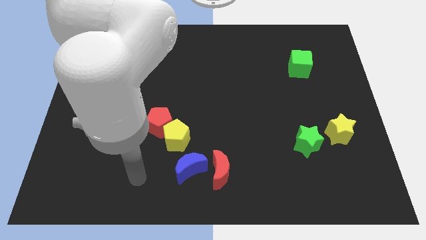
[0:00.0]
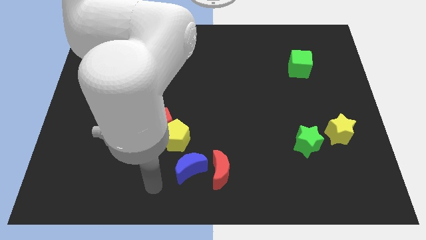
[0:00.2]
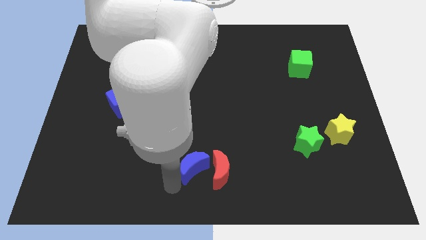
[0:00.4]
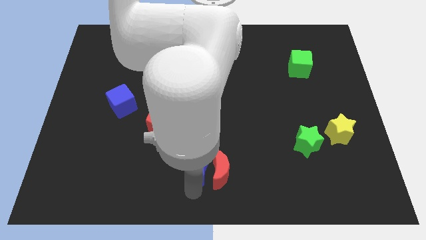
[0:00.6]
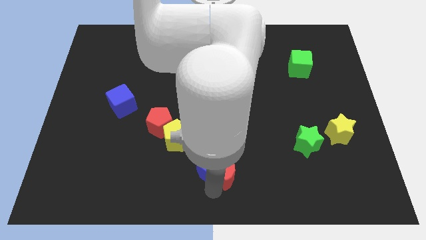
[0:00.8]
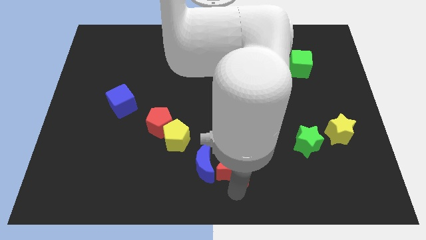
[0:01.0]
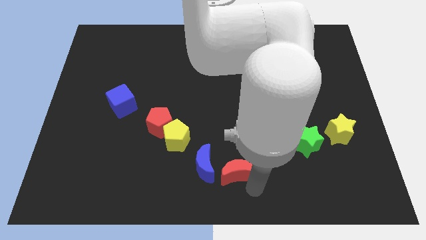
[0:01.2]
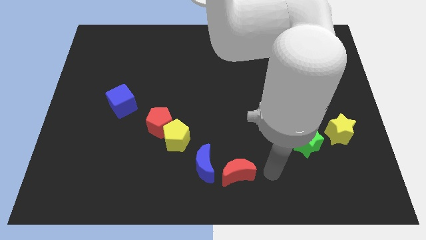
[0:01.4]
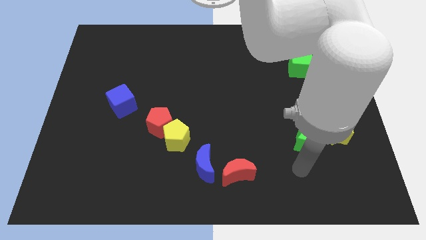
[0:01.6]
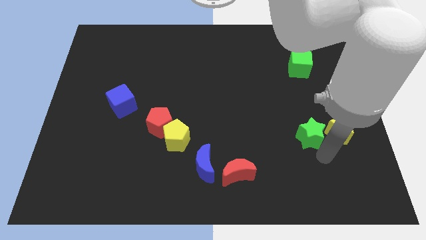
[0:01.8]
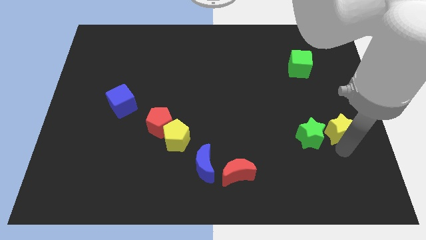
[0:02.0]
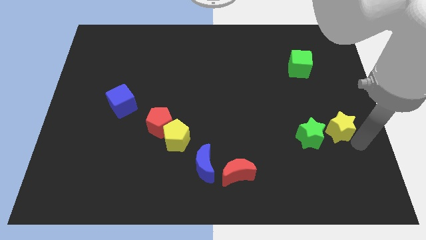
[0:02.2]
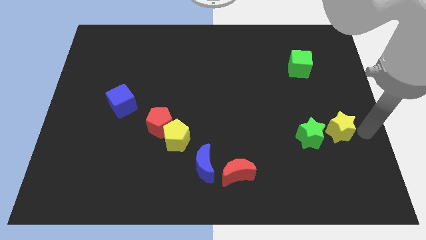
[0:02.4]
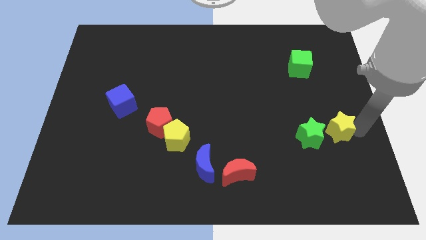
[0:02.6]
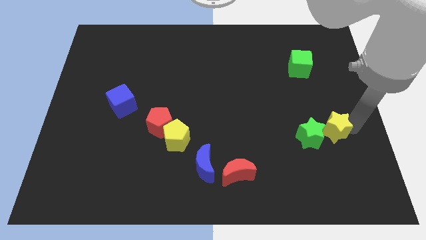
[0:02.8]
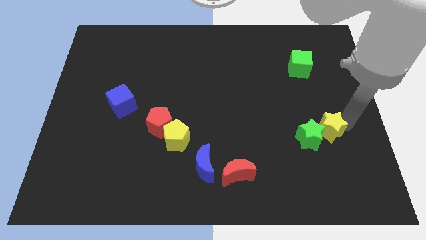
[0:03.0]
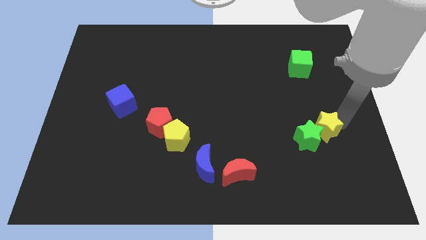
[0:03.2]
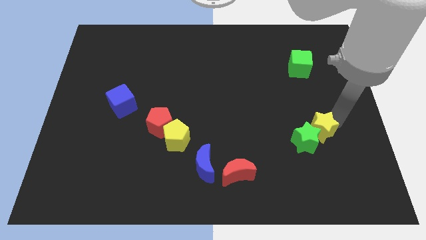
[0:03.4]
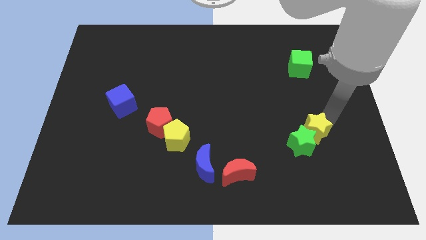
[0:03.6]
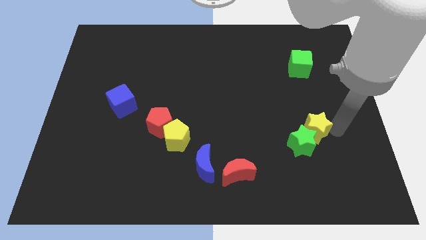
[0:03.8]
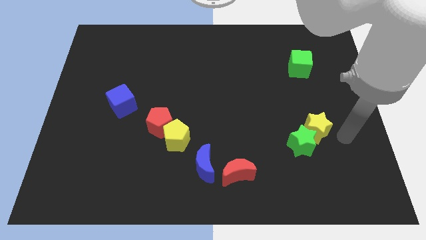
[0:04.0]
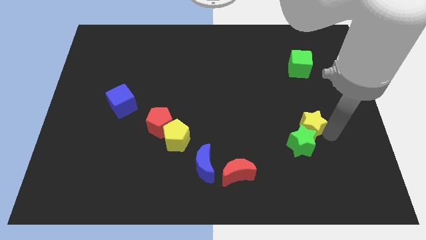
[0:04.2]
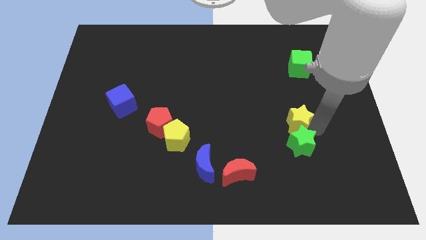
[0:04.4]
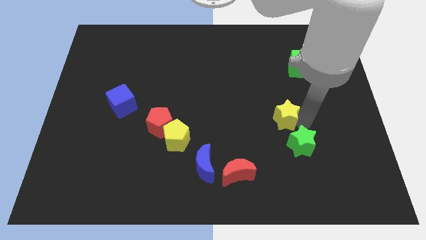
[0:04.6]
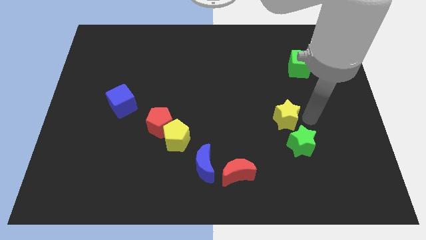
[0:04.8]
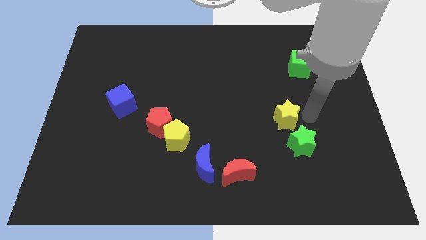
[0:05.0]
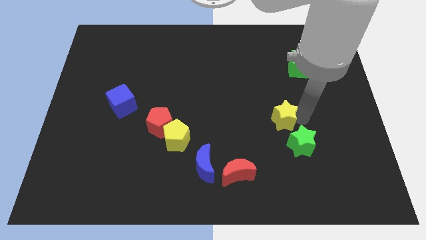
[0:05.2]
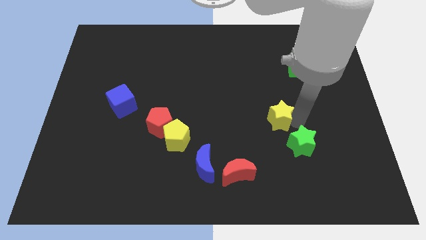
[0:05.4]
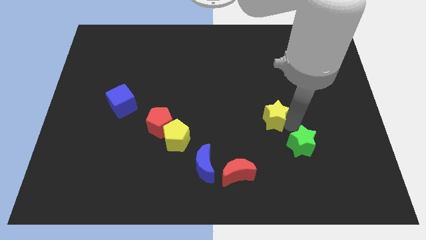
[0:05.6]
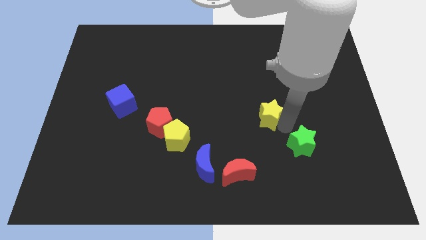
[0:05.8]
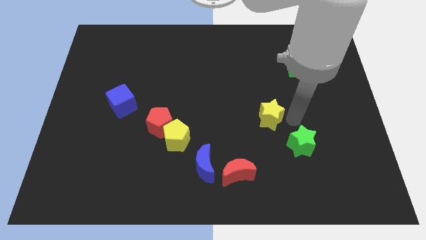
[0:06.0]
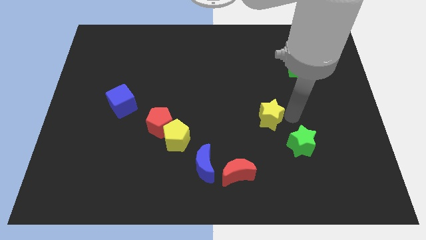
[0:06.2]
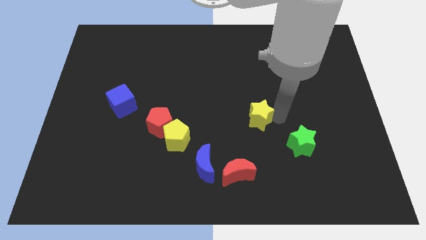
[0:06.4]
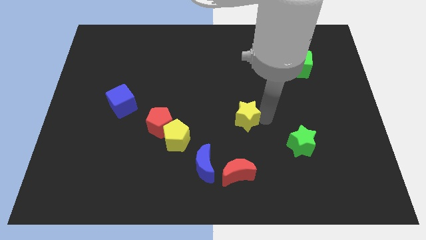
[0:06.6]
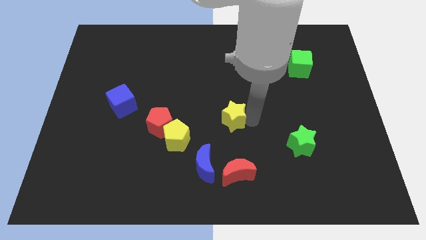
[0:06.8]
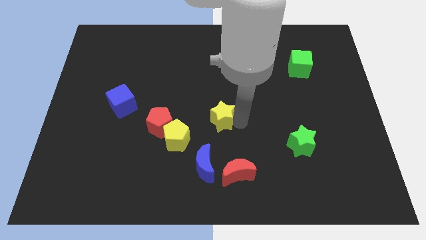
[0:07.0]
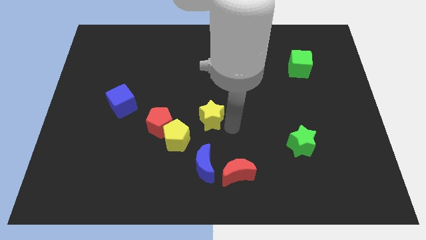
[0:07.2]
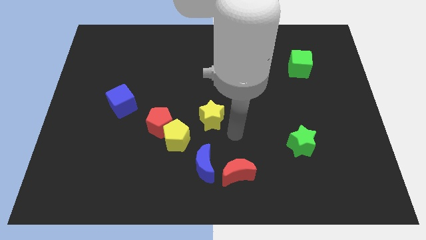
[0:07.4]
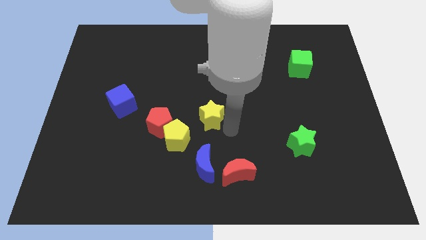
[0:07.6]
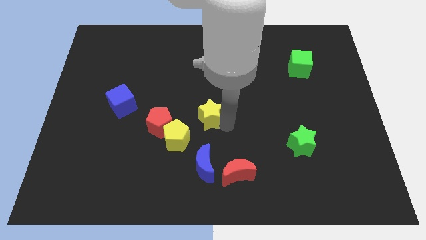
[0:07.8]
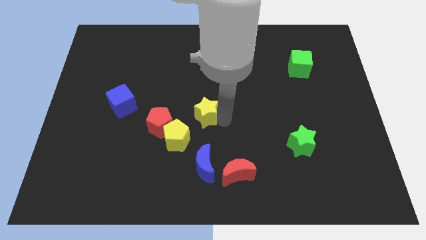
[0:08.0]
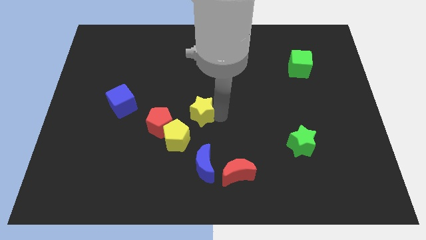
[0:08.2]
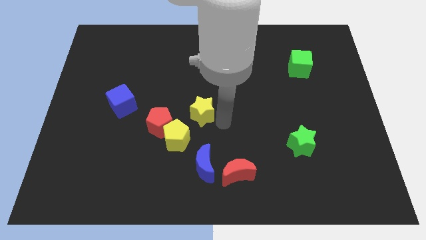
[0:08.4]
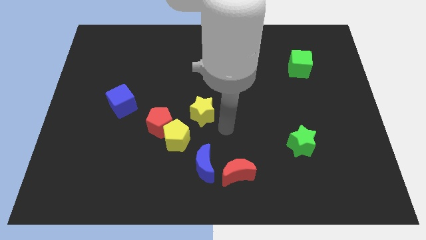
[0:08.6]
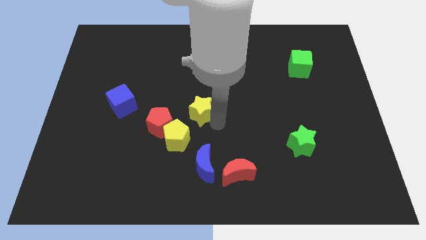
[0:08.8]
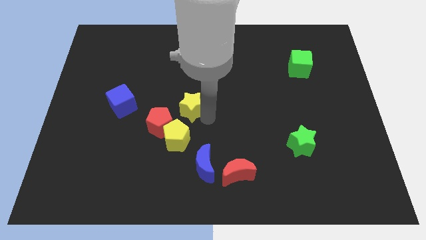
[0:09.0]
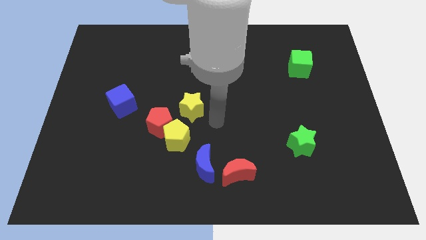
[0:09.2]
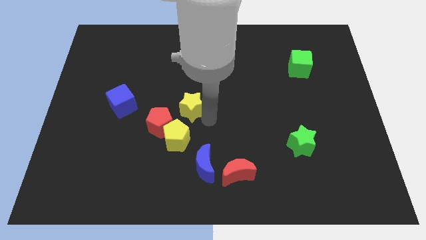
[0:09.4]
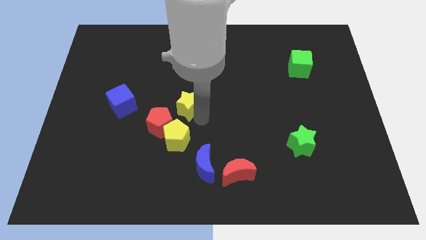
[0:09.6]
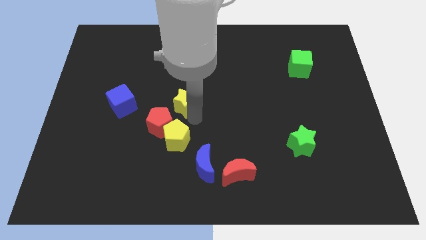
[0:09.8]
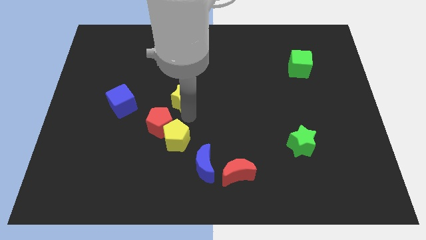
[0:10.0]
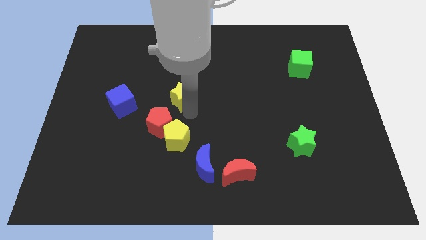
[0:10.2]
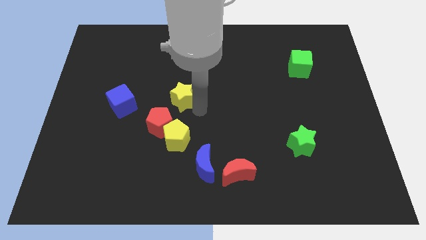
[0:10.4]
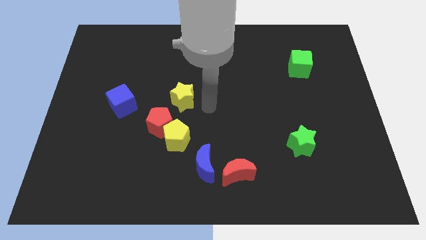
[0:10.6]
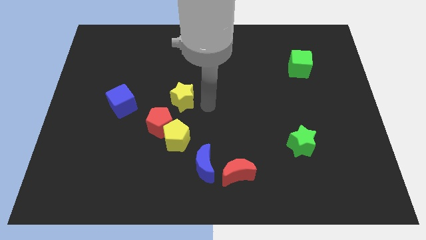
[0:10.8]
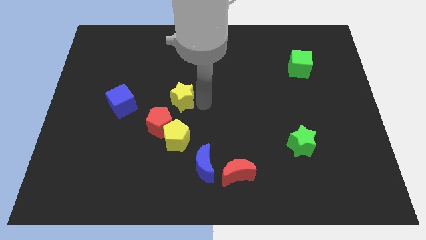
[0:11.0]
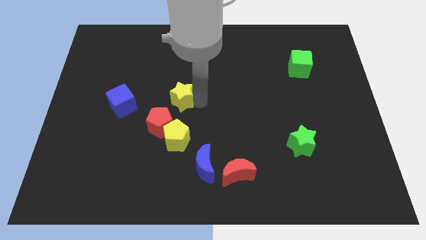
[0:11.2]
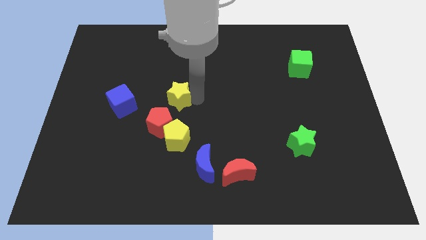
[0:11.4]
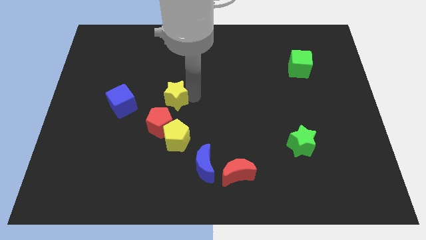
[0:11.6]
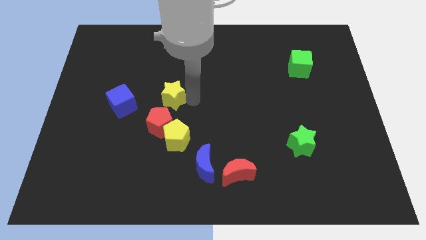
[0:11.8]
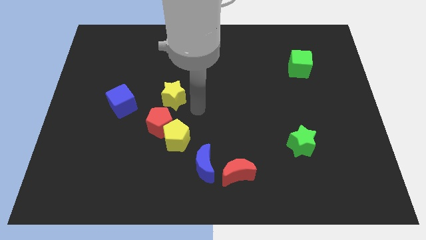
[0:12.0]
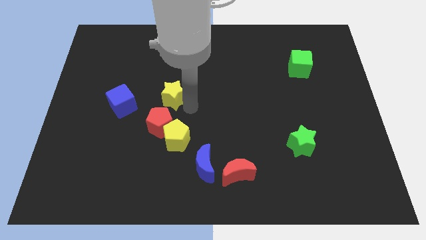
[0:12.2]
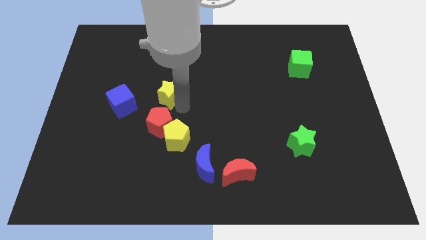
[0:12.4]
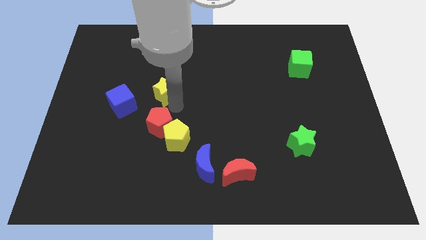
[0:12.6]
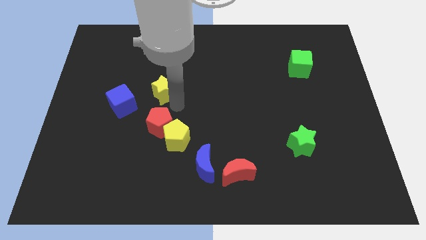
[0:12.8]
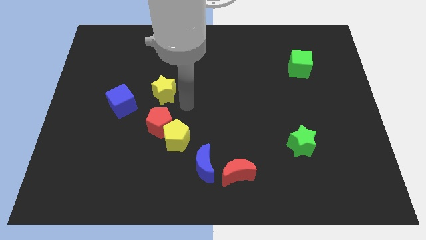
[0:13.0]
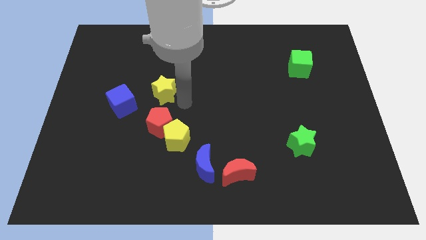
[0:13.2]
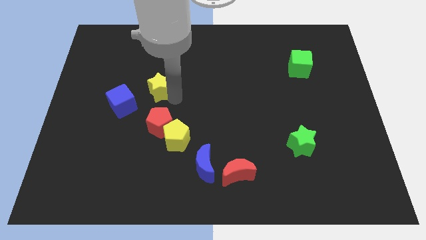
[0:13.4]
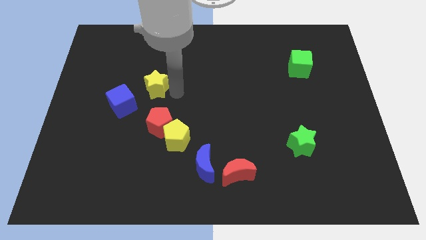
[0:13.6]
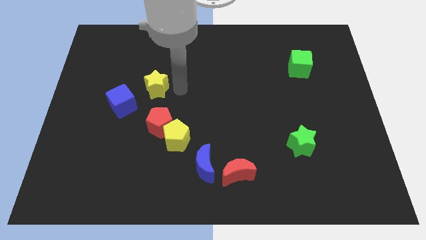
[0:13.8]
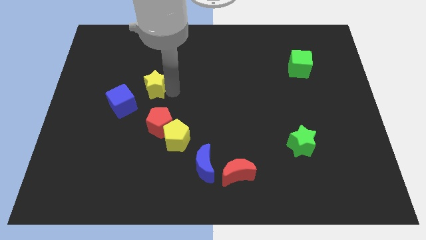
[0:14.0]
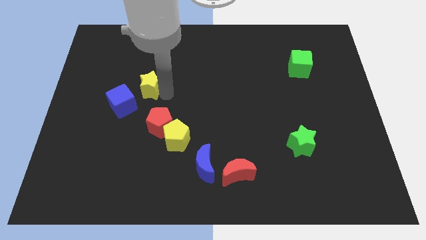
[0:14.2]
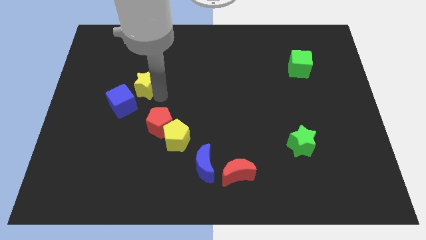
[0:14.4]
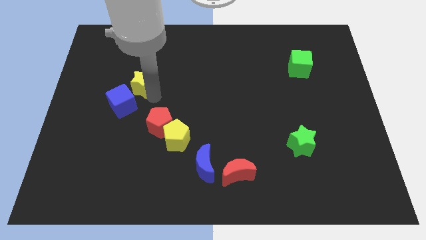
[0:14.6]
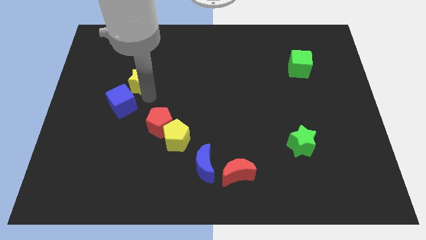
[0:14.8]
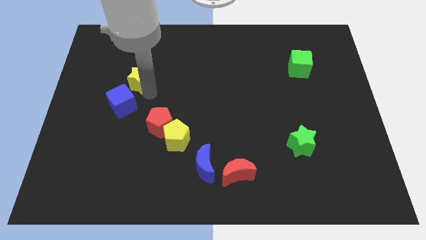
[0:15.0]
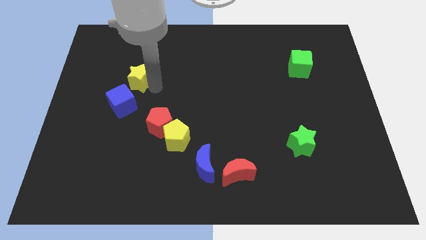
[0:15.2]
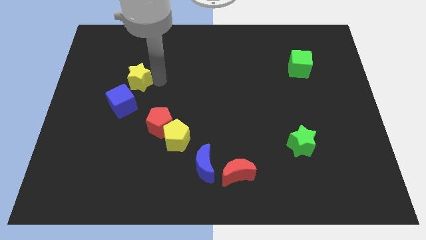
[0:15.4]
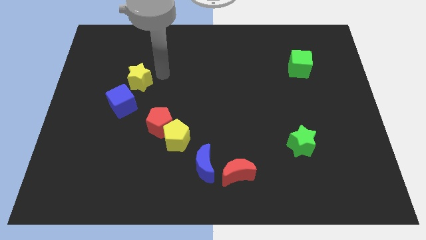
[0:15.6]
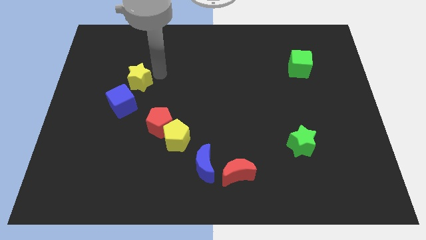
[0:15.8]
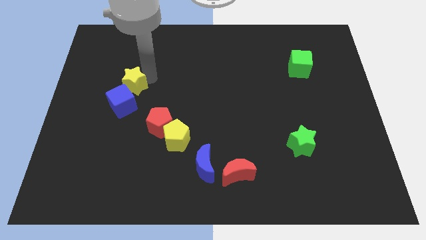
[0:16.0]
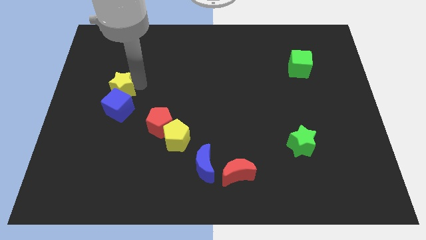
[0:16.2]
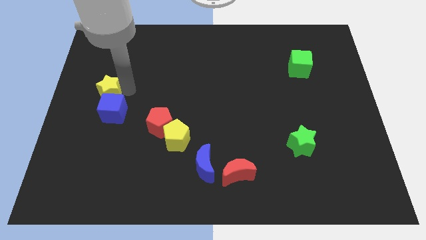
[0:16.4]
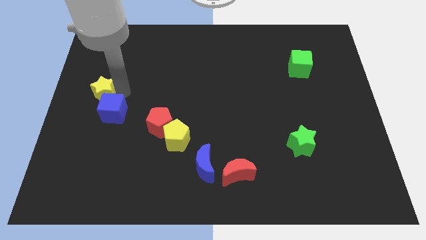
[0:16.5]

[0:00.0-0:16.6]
move the yellow star to the center left
